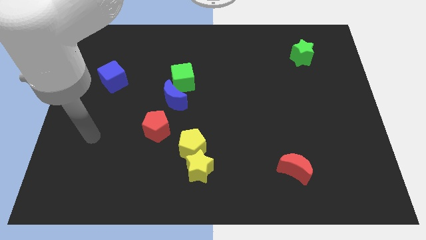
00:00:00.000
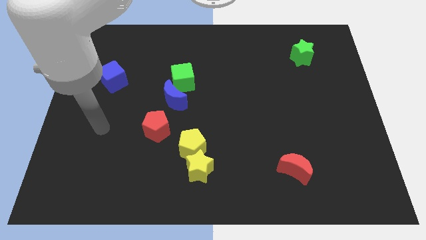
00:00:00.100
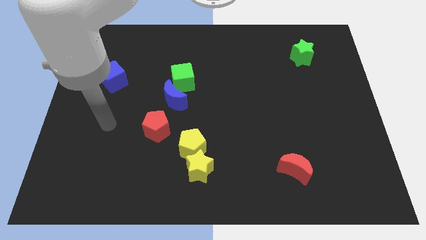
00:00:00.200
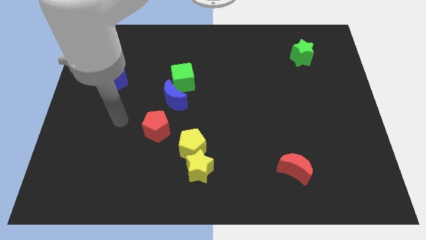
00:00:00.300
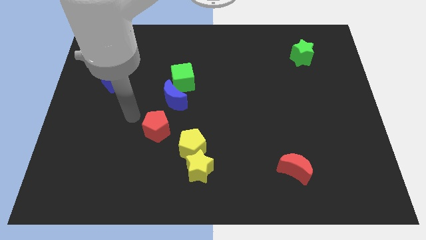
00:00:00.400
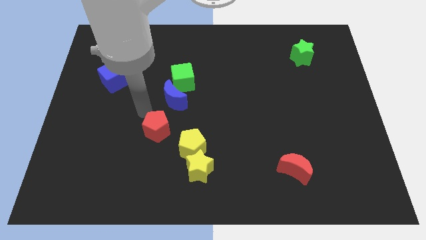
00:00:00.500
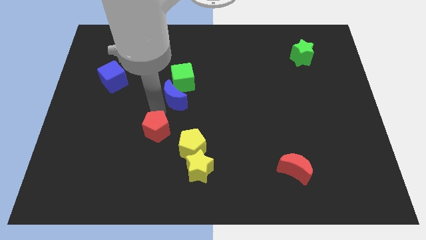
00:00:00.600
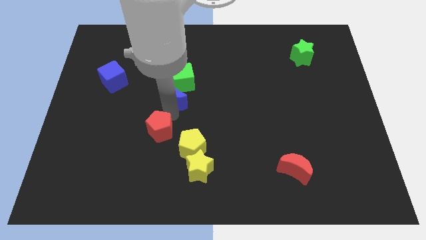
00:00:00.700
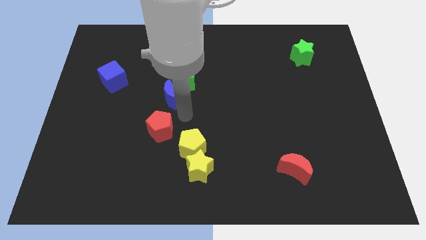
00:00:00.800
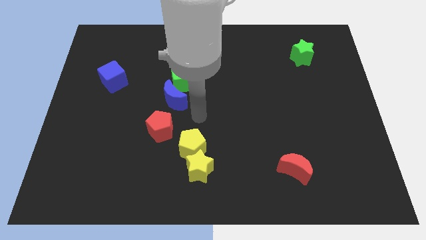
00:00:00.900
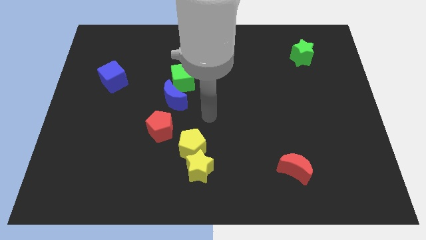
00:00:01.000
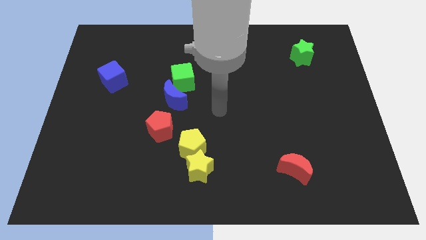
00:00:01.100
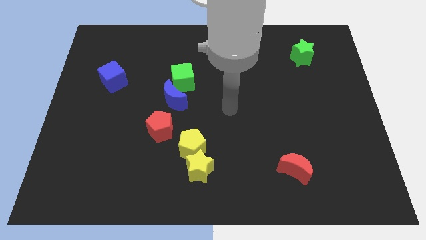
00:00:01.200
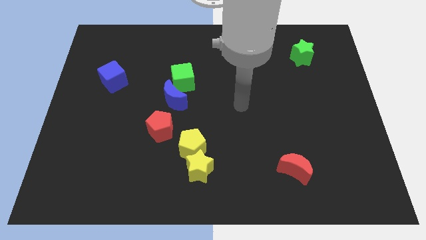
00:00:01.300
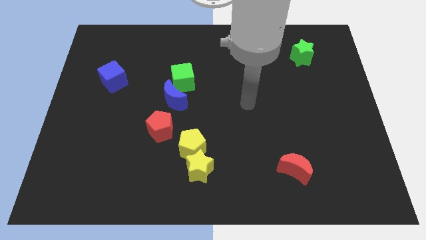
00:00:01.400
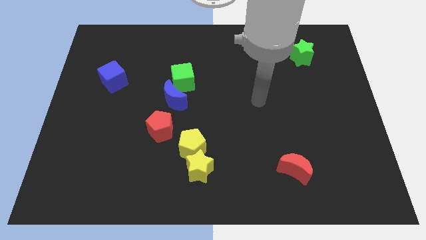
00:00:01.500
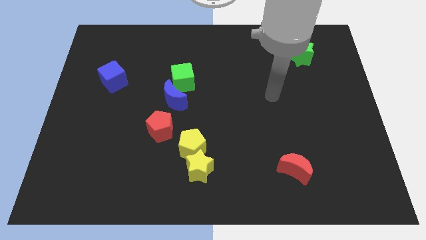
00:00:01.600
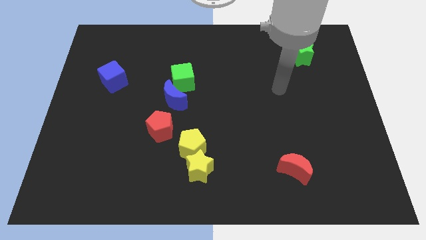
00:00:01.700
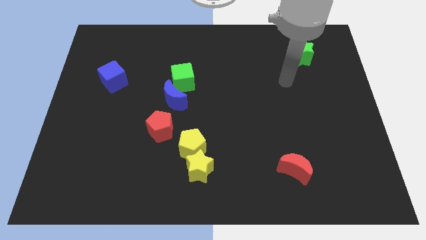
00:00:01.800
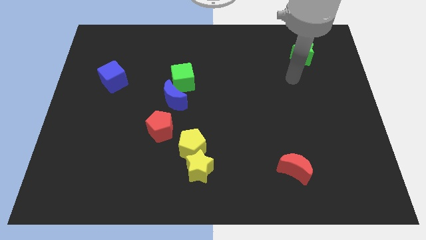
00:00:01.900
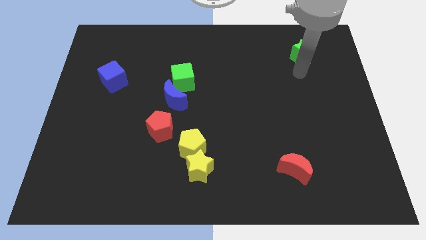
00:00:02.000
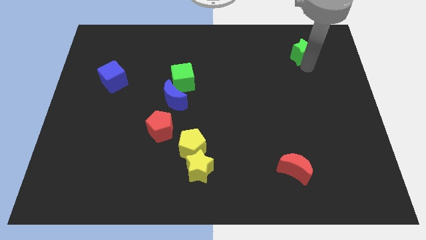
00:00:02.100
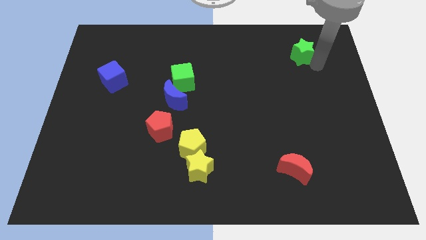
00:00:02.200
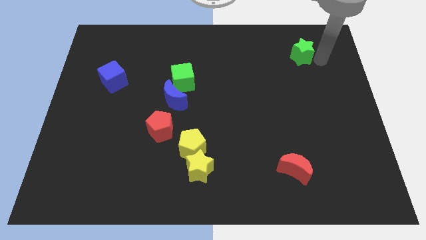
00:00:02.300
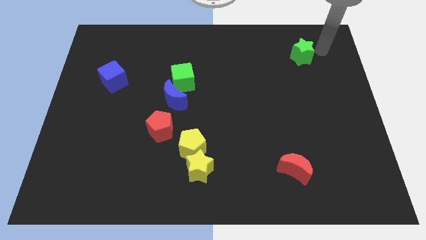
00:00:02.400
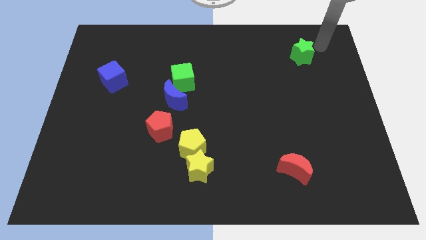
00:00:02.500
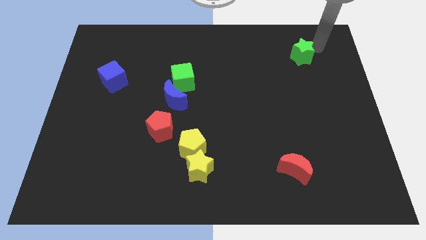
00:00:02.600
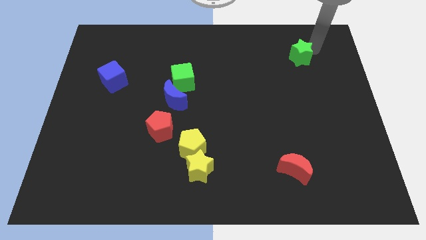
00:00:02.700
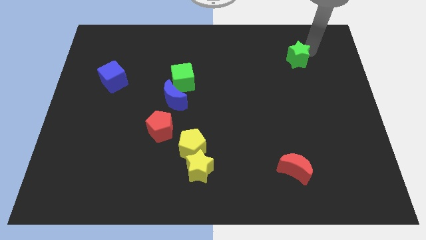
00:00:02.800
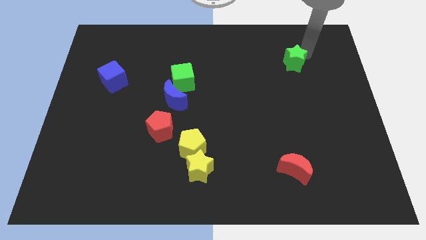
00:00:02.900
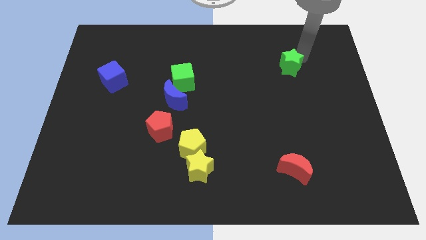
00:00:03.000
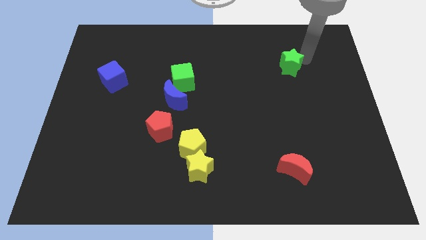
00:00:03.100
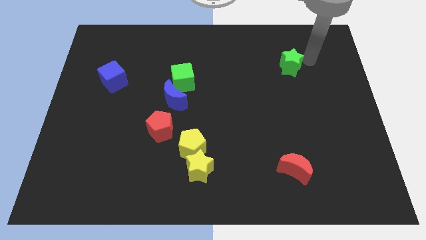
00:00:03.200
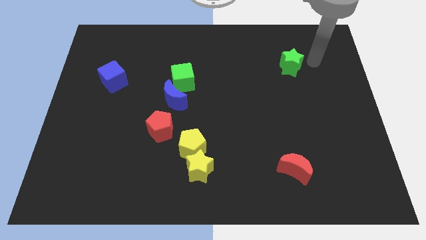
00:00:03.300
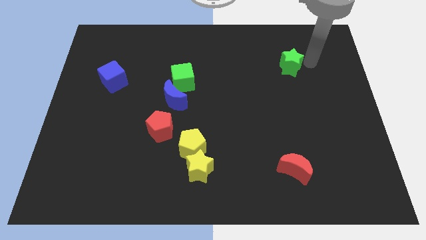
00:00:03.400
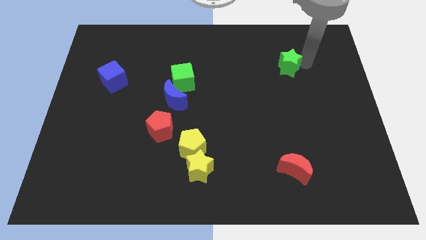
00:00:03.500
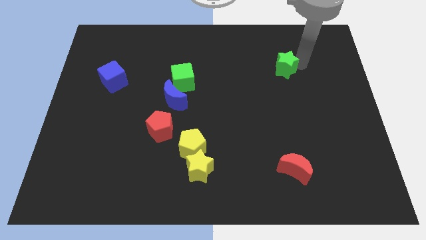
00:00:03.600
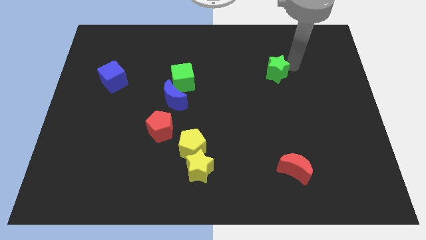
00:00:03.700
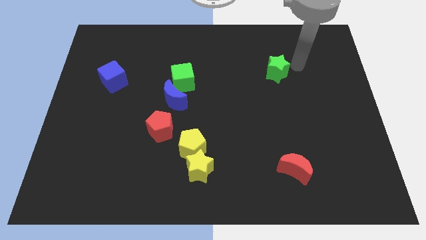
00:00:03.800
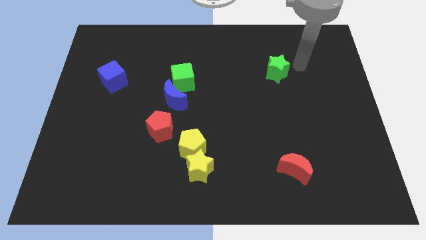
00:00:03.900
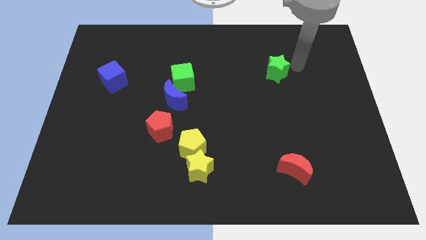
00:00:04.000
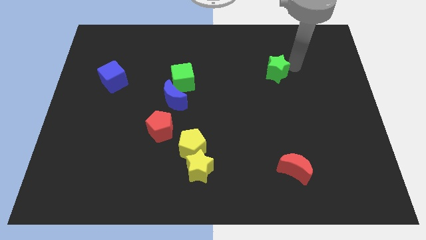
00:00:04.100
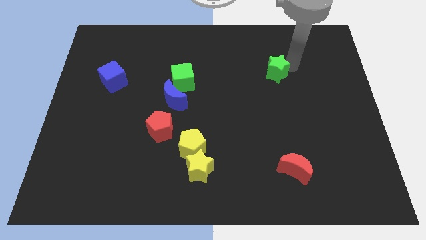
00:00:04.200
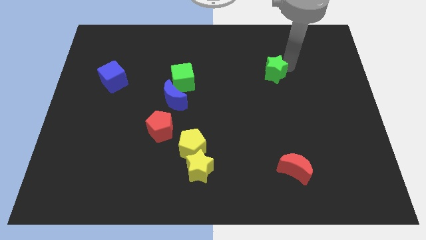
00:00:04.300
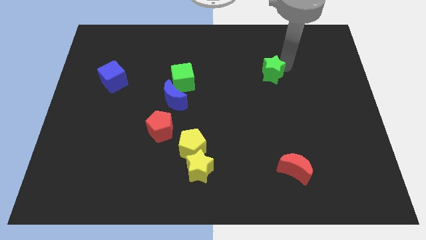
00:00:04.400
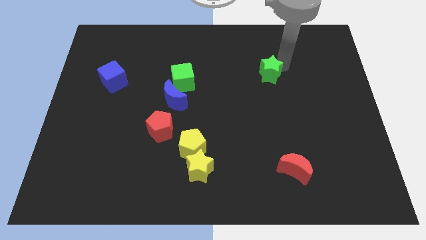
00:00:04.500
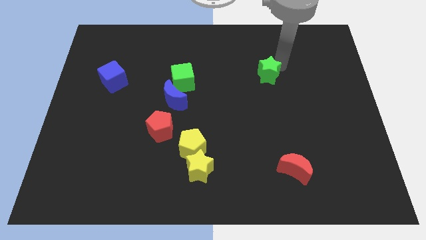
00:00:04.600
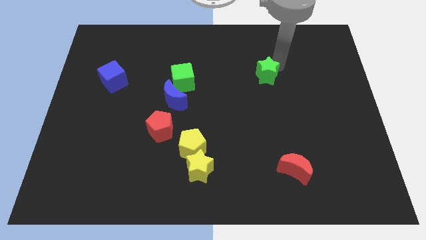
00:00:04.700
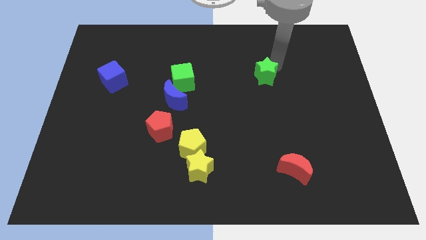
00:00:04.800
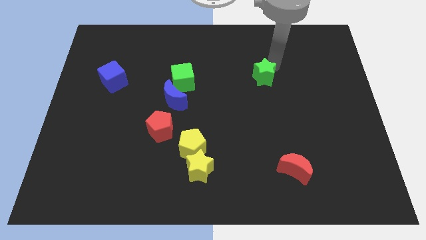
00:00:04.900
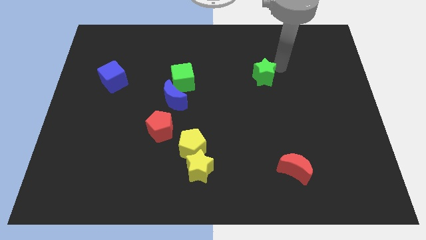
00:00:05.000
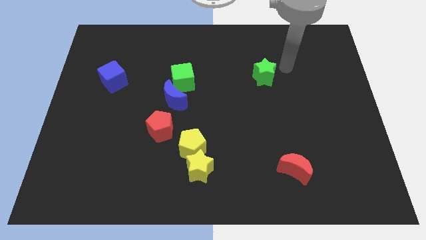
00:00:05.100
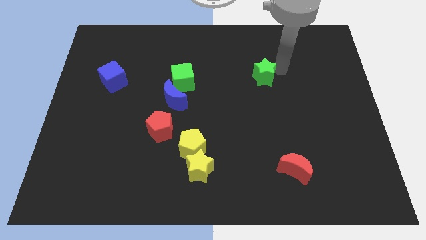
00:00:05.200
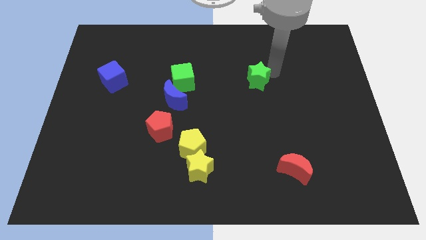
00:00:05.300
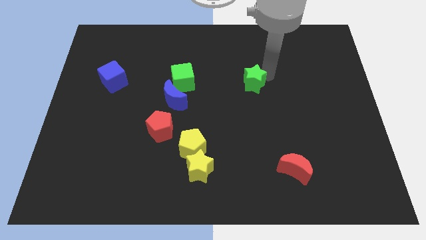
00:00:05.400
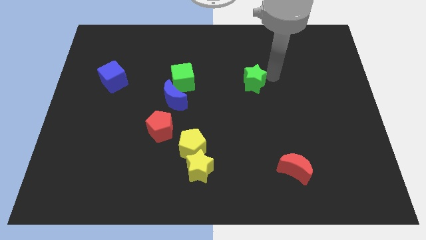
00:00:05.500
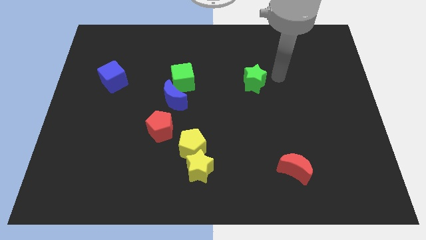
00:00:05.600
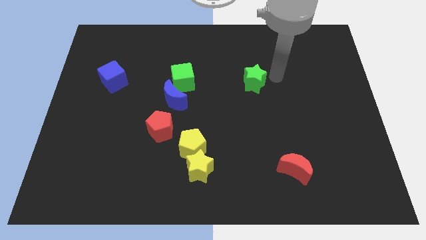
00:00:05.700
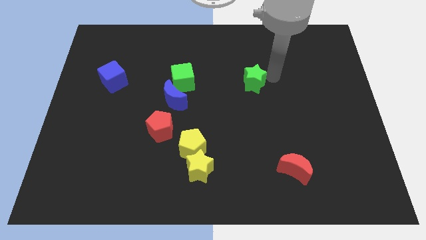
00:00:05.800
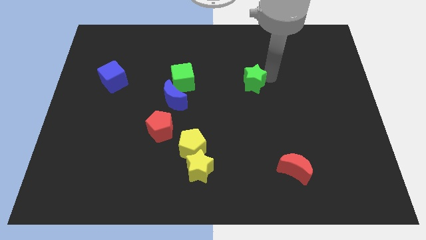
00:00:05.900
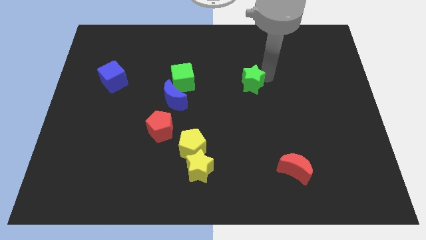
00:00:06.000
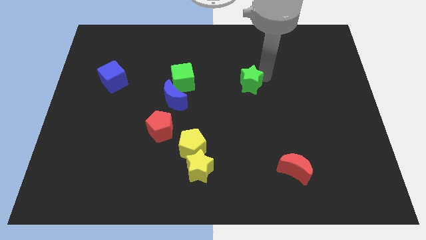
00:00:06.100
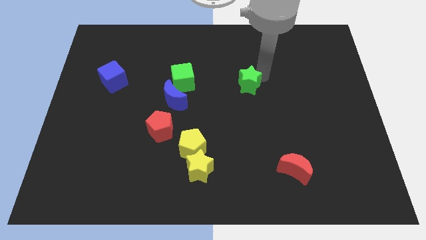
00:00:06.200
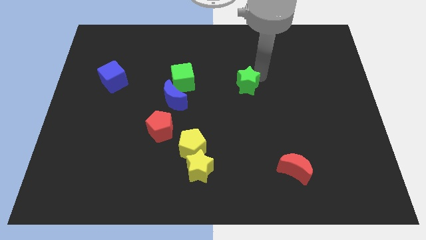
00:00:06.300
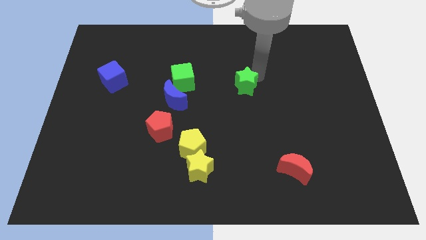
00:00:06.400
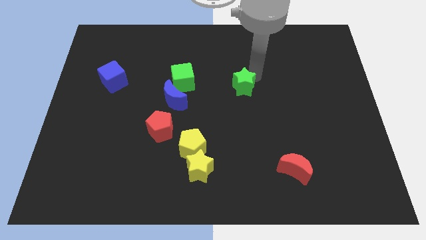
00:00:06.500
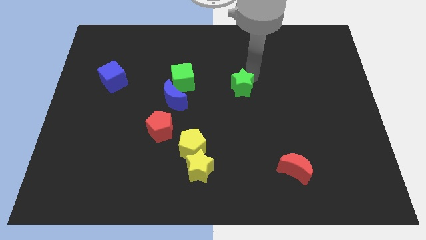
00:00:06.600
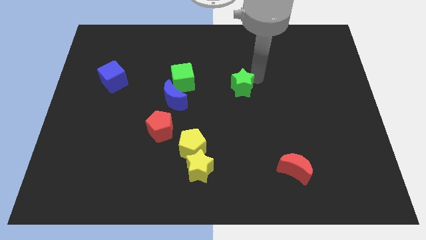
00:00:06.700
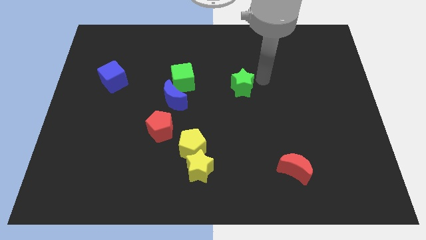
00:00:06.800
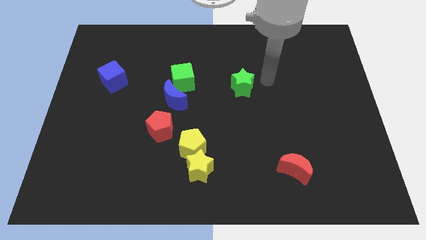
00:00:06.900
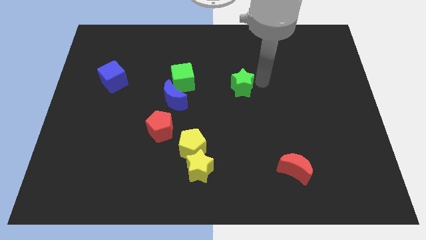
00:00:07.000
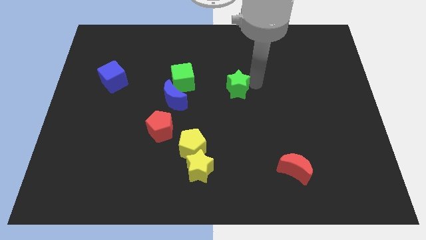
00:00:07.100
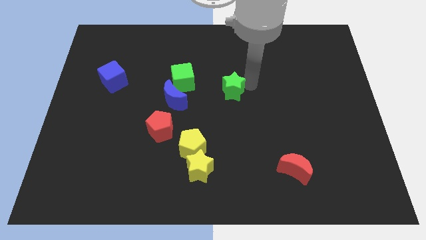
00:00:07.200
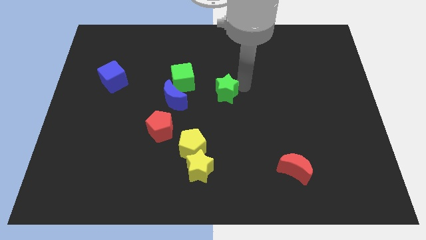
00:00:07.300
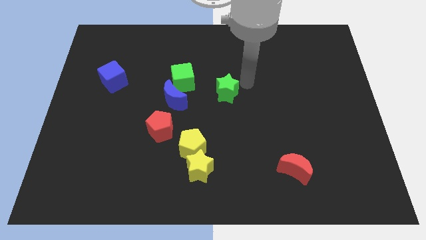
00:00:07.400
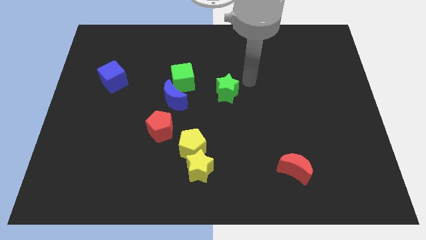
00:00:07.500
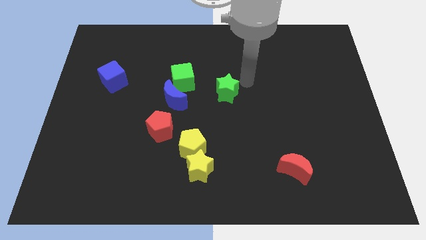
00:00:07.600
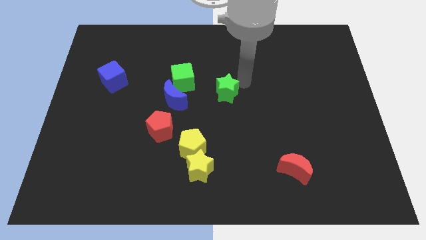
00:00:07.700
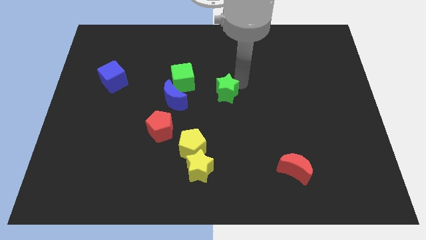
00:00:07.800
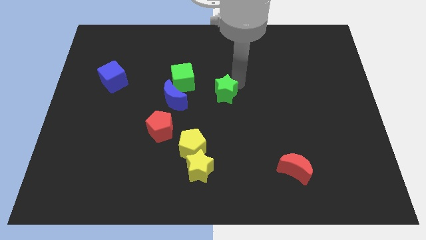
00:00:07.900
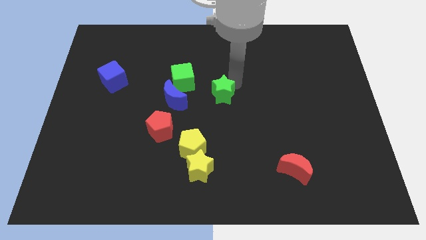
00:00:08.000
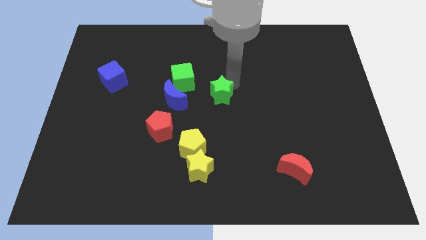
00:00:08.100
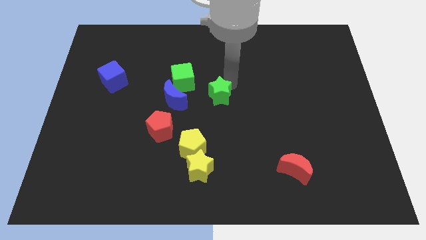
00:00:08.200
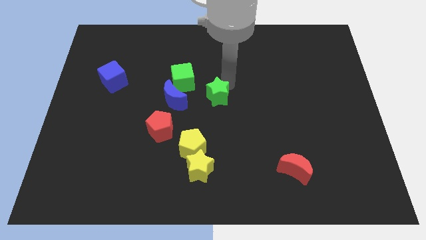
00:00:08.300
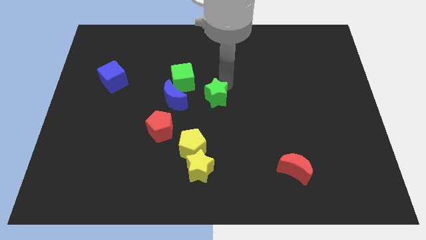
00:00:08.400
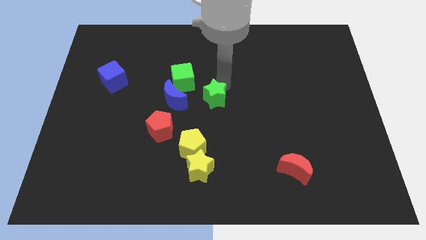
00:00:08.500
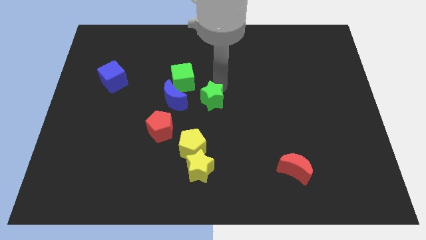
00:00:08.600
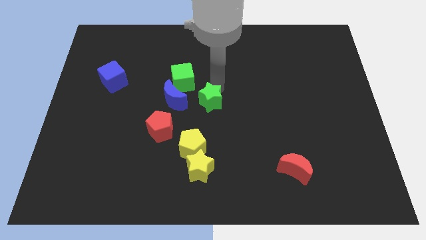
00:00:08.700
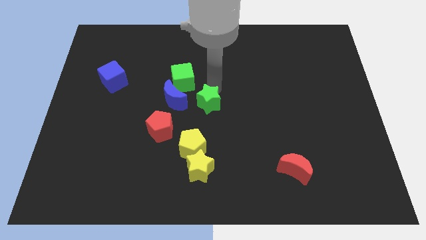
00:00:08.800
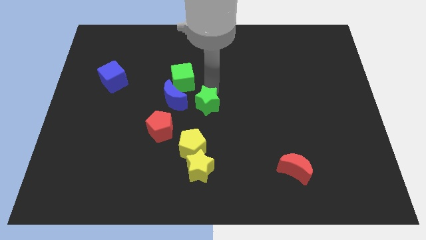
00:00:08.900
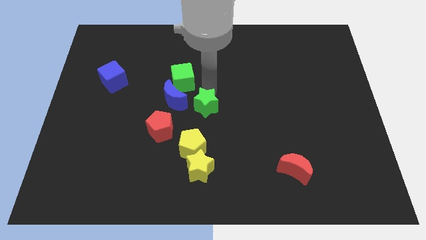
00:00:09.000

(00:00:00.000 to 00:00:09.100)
push the green star to the bottom right of the blue moon
